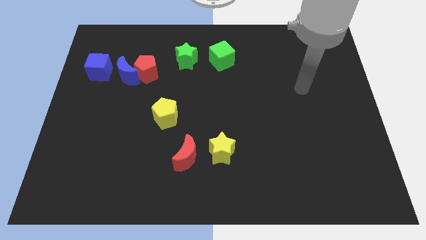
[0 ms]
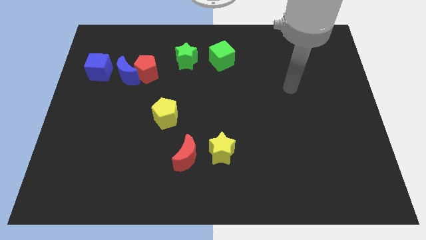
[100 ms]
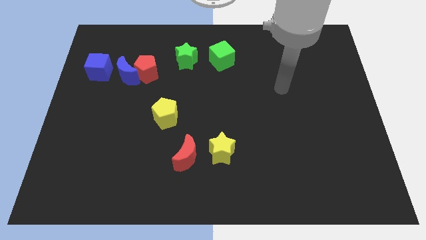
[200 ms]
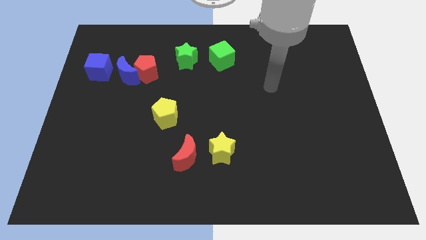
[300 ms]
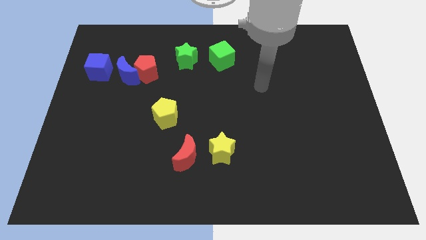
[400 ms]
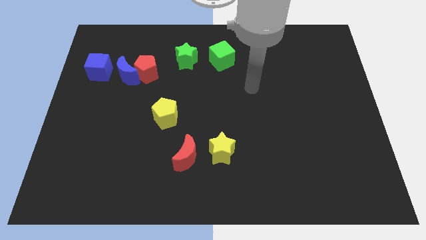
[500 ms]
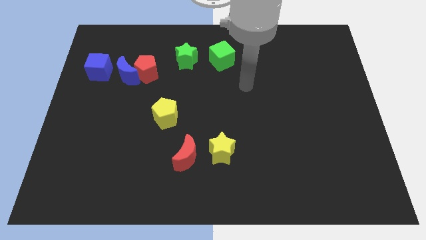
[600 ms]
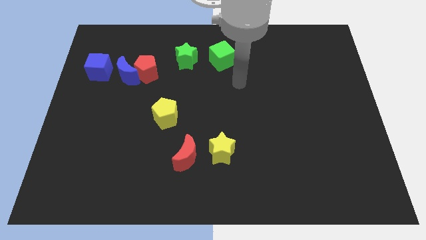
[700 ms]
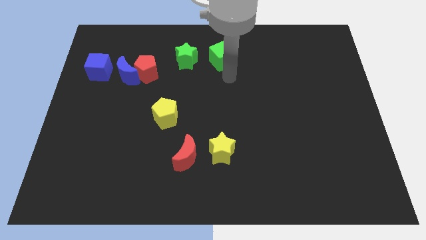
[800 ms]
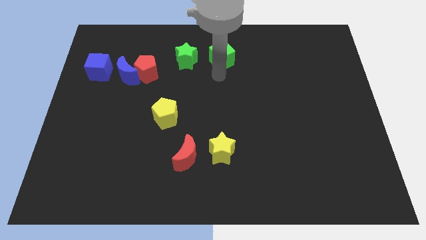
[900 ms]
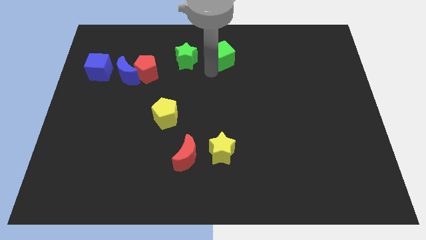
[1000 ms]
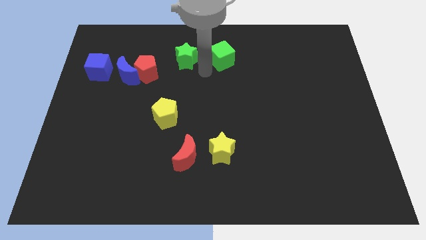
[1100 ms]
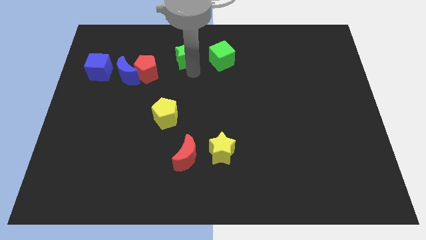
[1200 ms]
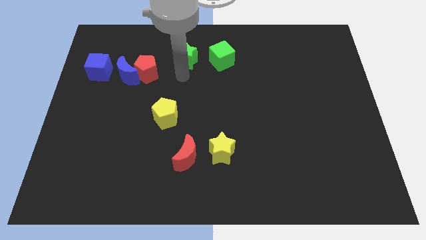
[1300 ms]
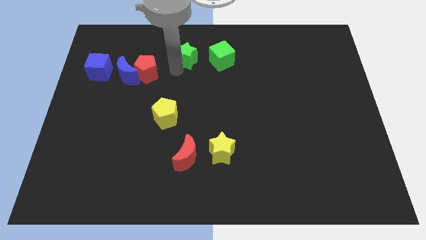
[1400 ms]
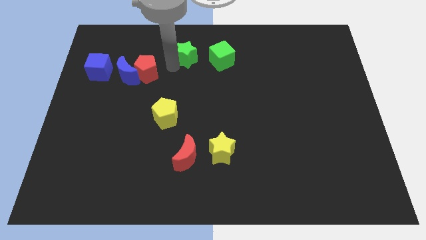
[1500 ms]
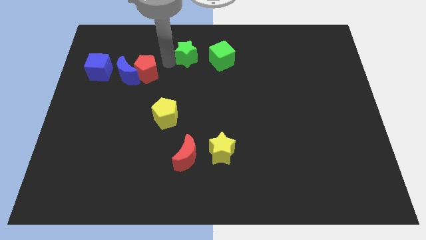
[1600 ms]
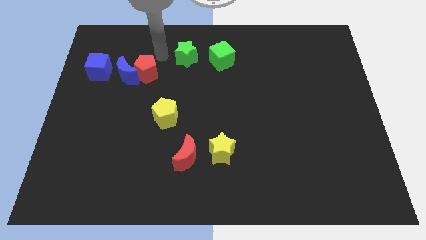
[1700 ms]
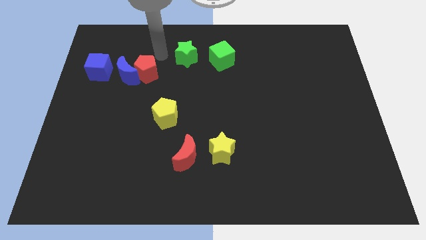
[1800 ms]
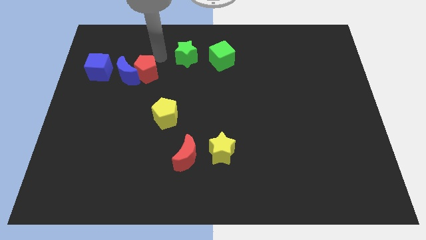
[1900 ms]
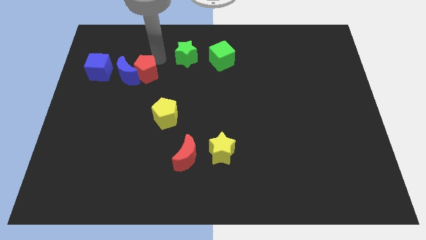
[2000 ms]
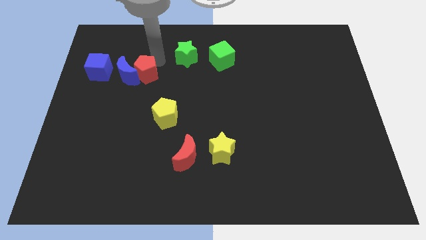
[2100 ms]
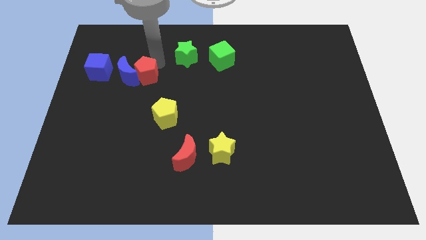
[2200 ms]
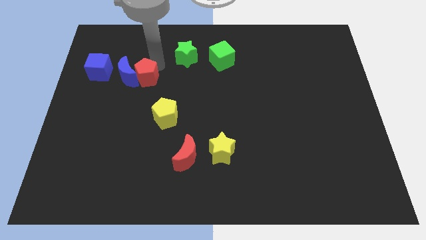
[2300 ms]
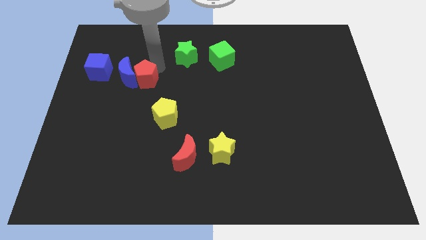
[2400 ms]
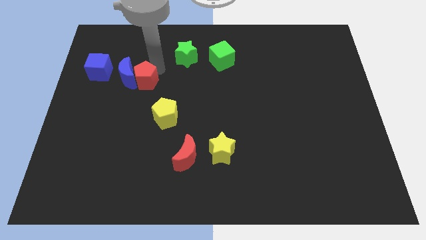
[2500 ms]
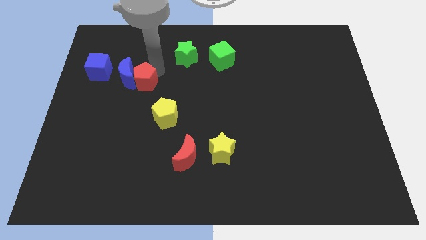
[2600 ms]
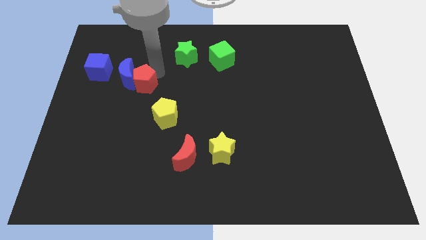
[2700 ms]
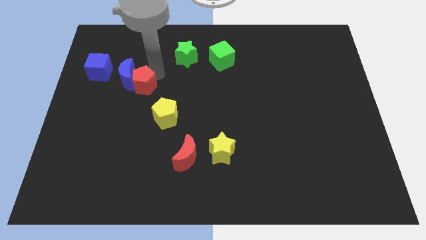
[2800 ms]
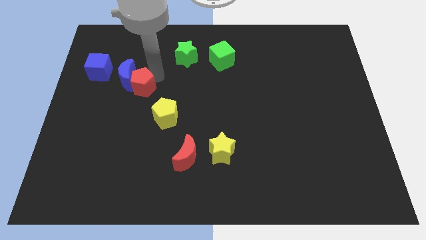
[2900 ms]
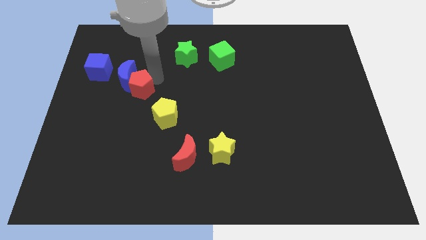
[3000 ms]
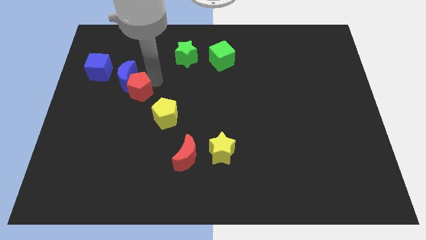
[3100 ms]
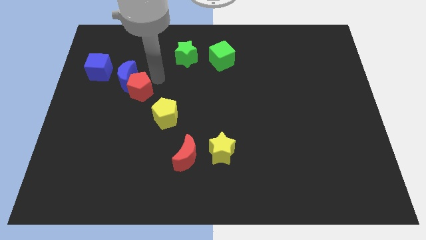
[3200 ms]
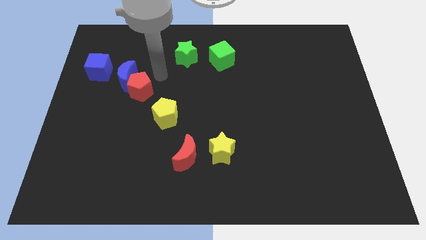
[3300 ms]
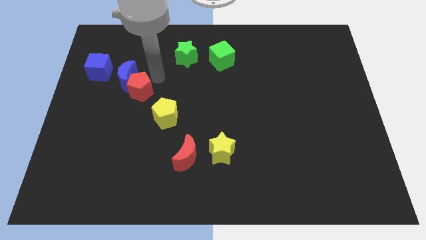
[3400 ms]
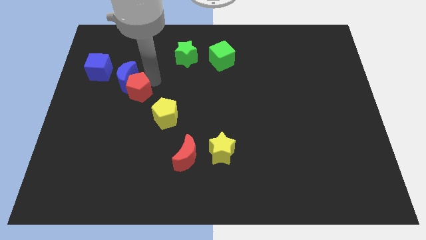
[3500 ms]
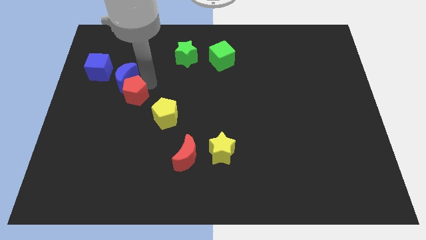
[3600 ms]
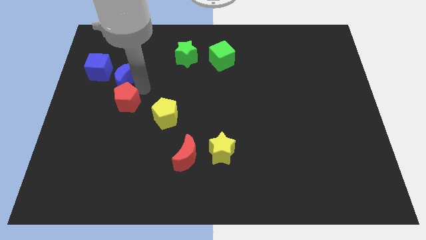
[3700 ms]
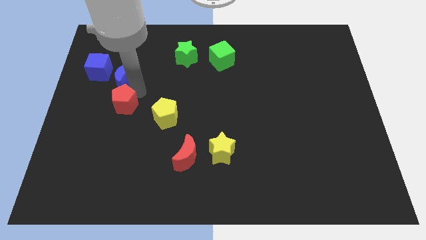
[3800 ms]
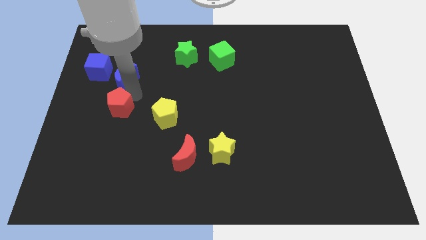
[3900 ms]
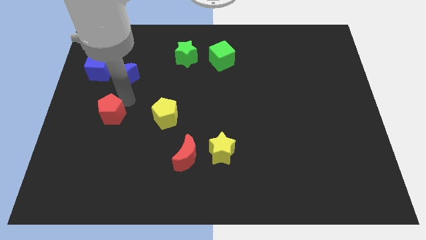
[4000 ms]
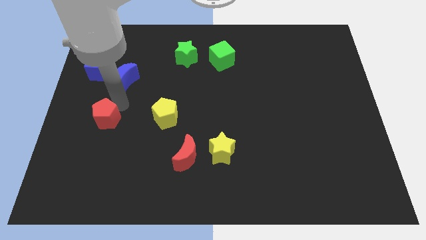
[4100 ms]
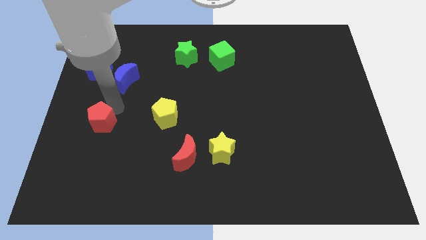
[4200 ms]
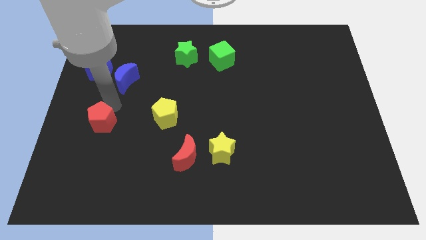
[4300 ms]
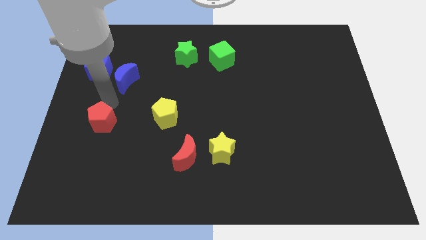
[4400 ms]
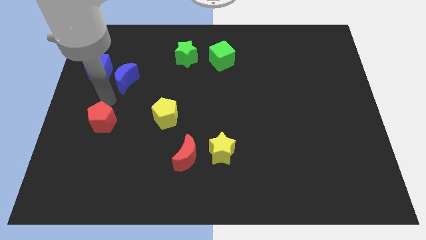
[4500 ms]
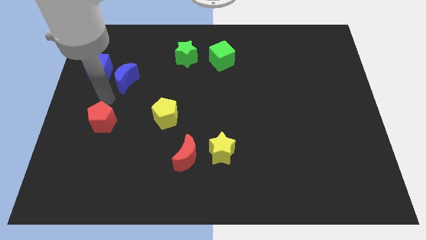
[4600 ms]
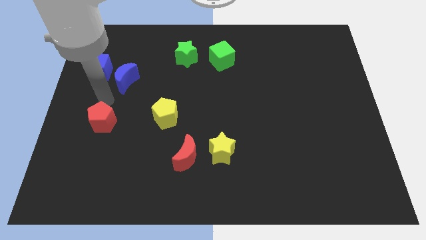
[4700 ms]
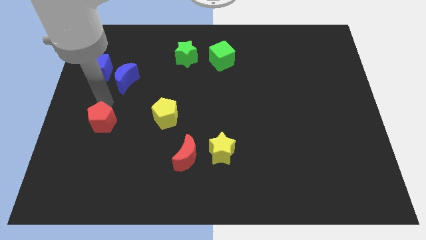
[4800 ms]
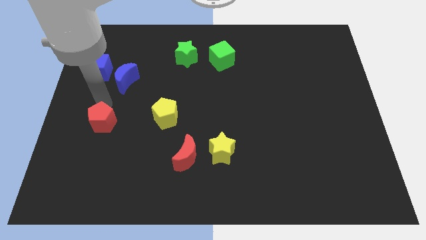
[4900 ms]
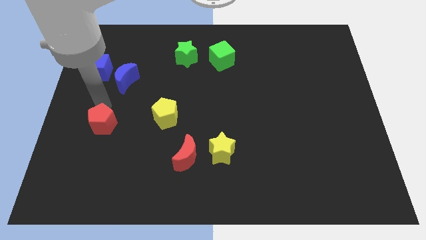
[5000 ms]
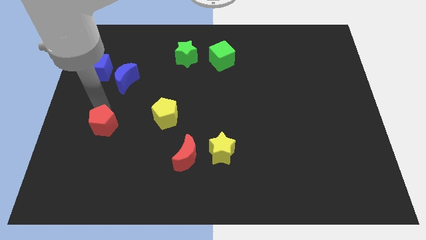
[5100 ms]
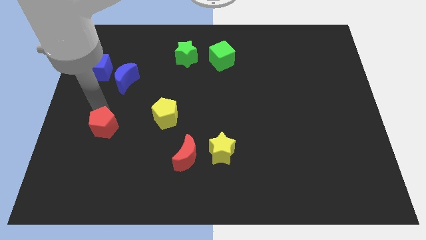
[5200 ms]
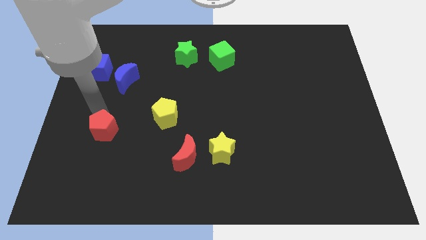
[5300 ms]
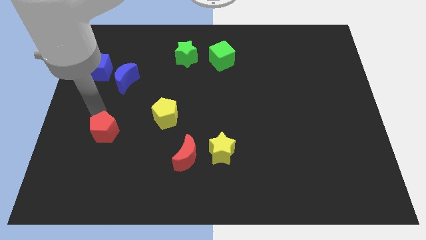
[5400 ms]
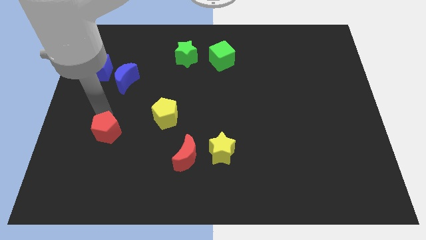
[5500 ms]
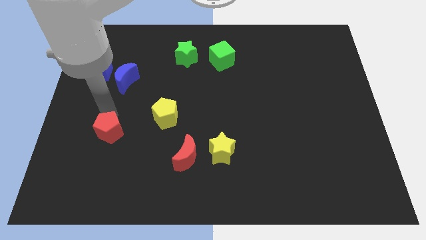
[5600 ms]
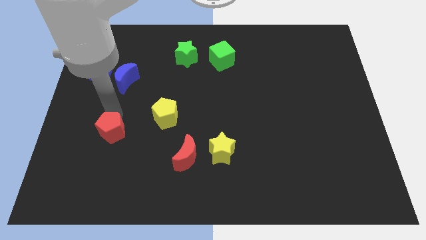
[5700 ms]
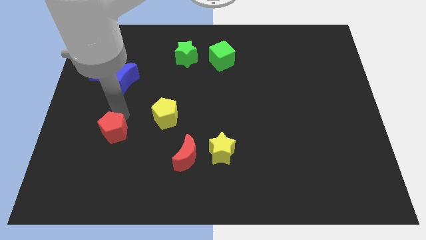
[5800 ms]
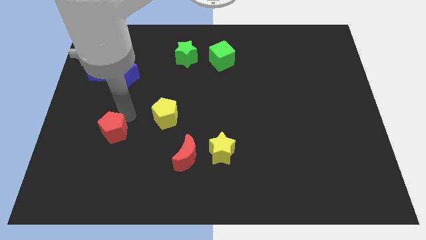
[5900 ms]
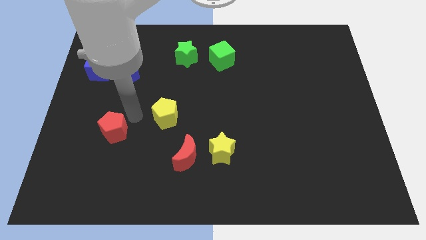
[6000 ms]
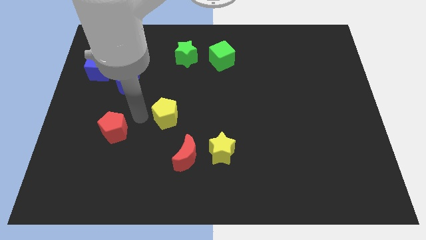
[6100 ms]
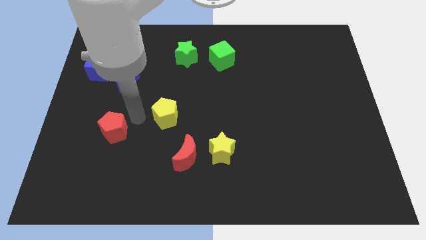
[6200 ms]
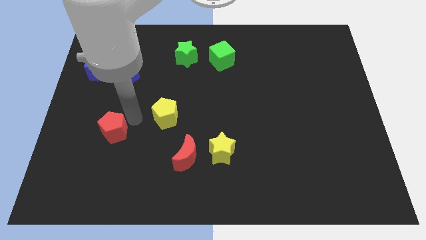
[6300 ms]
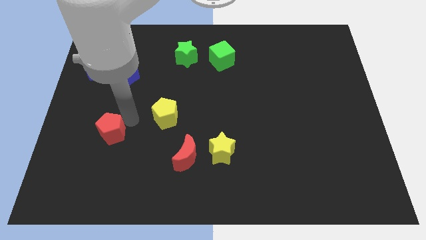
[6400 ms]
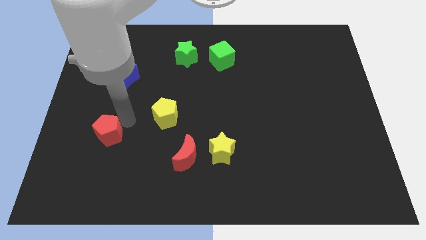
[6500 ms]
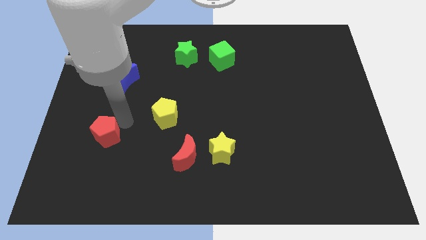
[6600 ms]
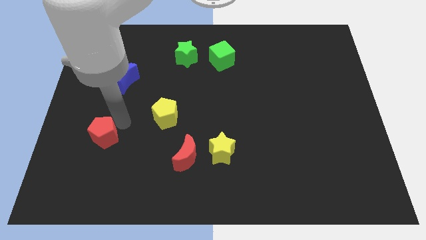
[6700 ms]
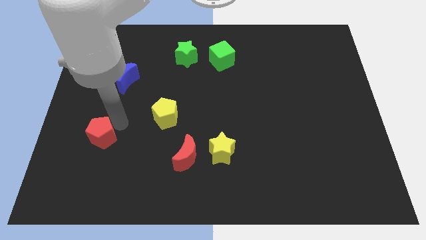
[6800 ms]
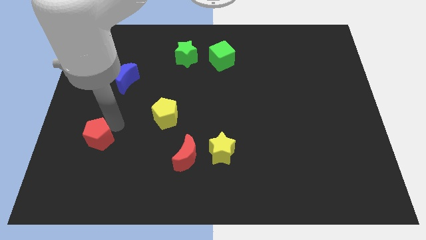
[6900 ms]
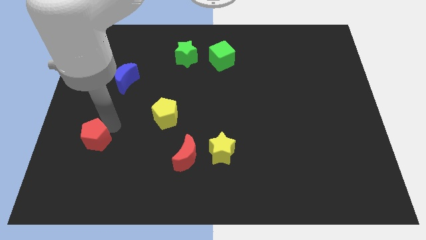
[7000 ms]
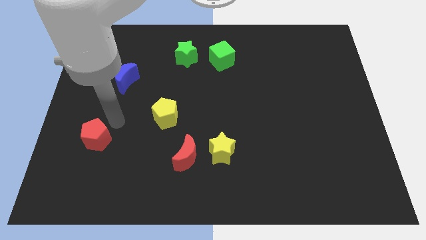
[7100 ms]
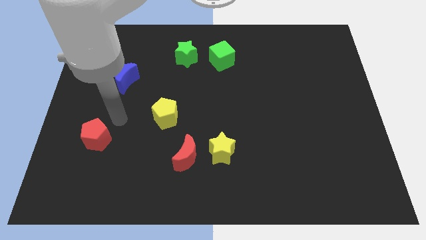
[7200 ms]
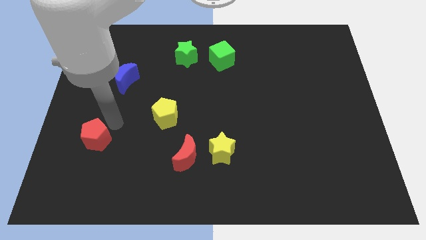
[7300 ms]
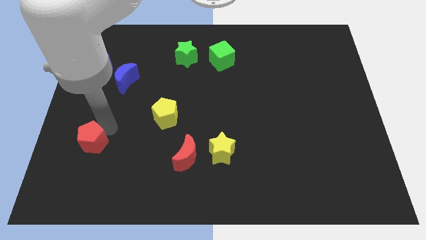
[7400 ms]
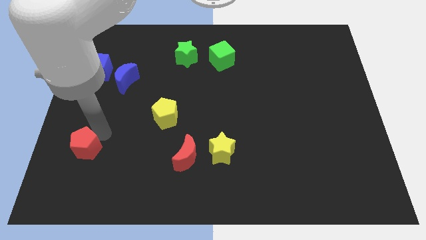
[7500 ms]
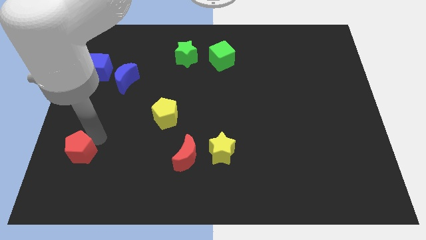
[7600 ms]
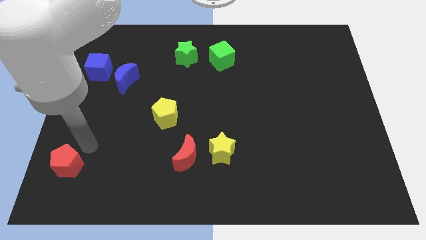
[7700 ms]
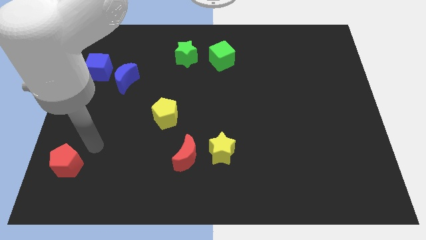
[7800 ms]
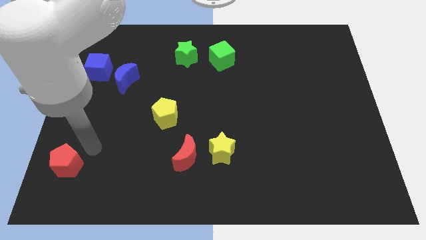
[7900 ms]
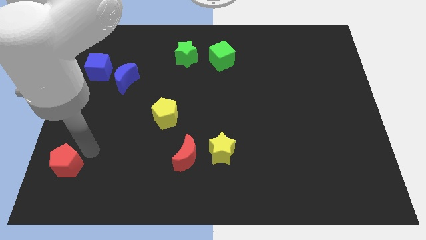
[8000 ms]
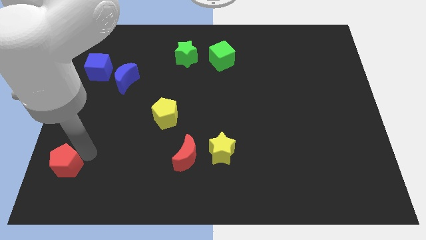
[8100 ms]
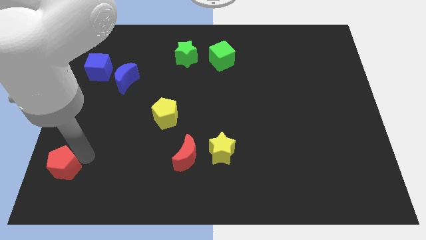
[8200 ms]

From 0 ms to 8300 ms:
slide the red pentagon to the lower left corner
